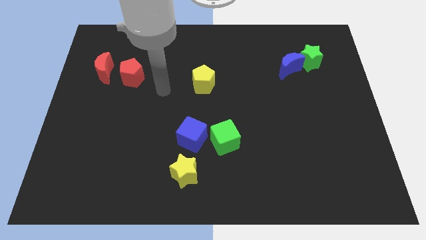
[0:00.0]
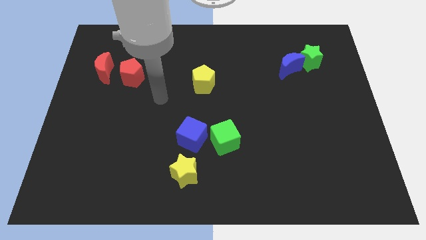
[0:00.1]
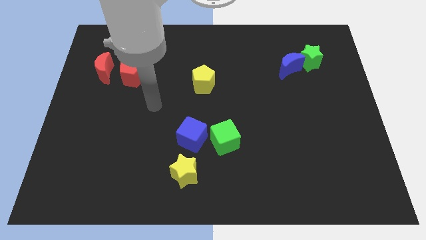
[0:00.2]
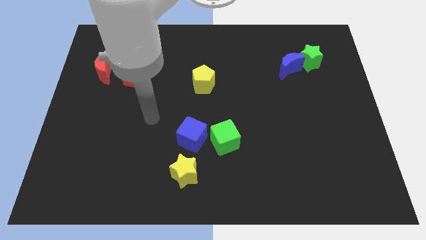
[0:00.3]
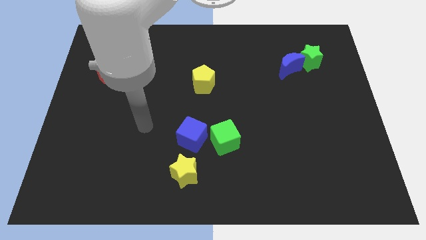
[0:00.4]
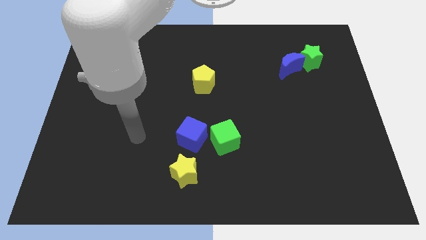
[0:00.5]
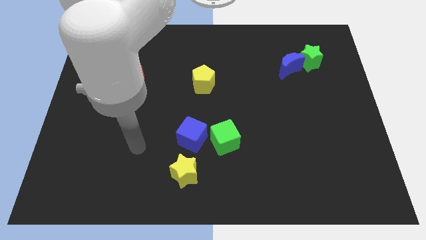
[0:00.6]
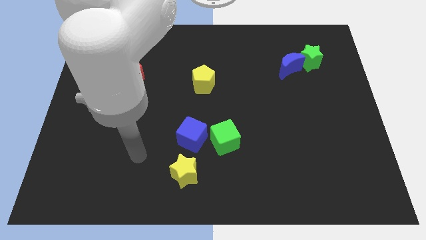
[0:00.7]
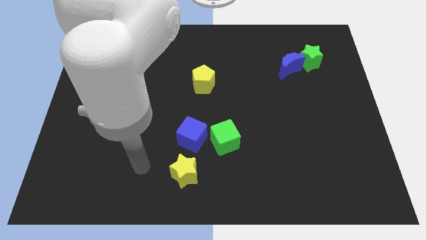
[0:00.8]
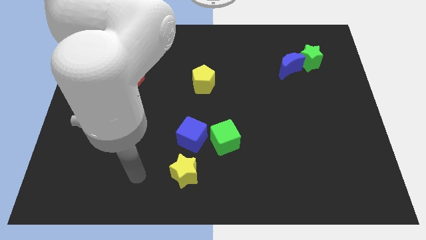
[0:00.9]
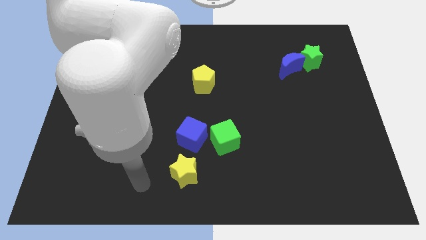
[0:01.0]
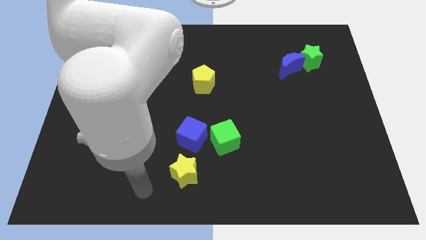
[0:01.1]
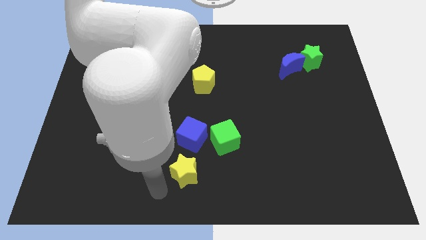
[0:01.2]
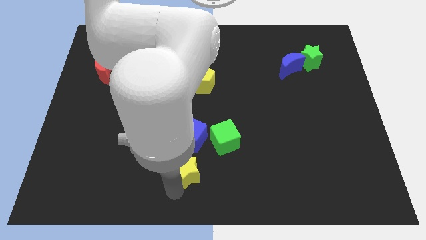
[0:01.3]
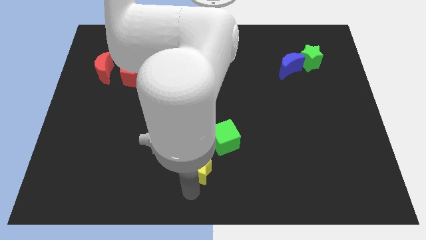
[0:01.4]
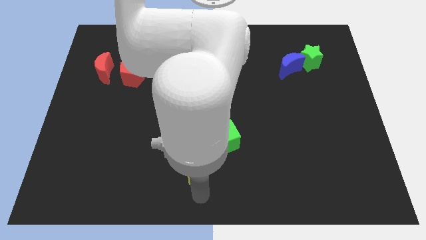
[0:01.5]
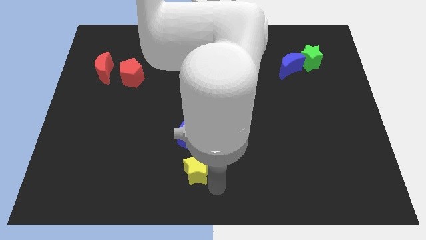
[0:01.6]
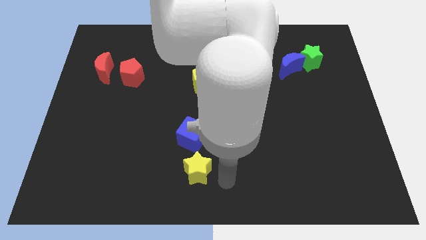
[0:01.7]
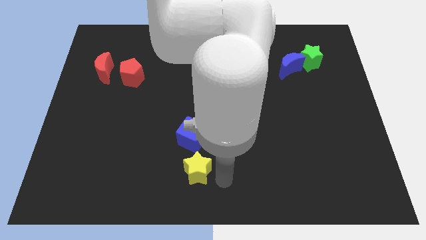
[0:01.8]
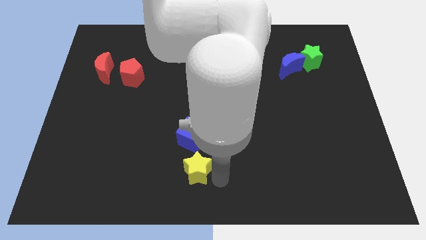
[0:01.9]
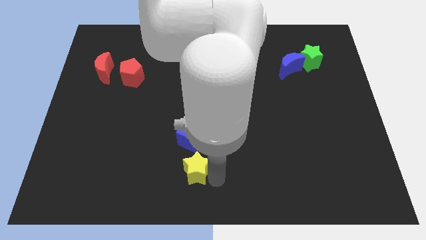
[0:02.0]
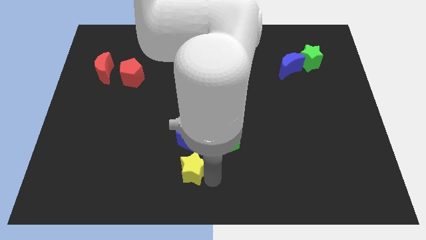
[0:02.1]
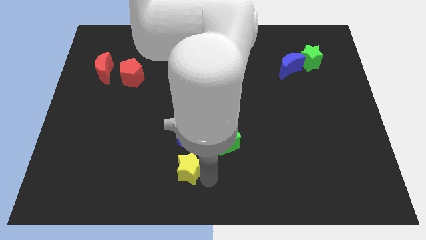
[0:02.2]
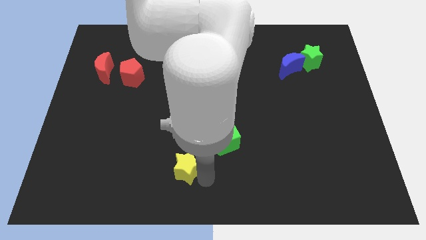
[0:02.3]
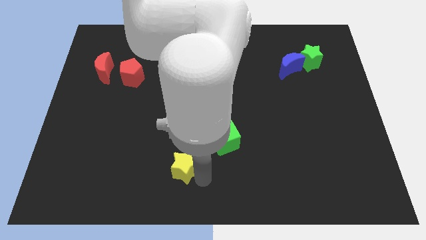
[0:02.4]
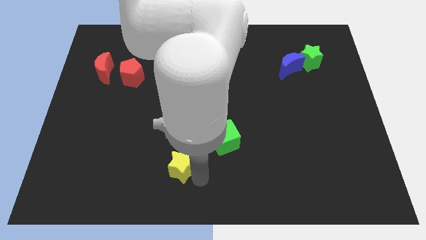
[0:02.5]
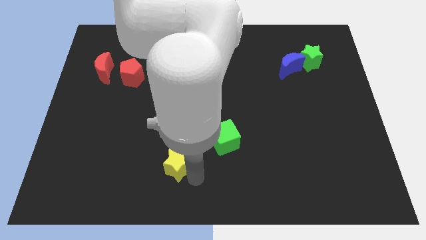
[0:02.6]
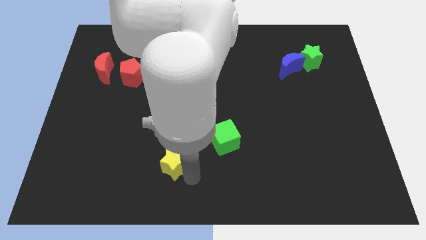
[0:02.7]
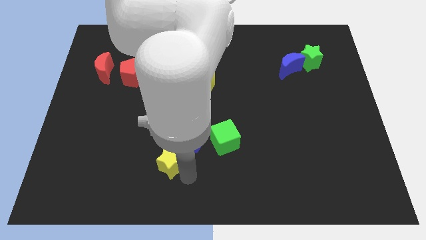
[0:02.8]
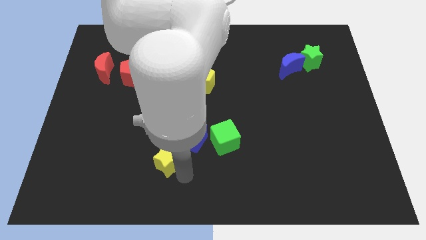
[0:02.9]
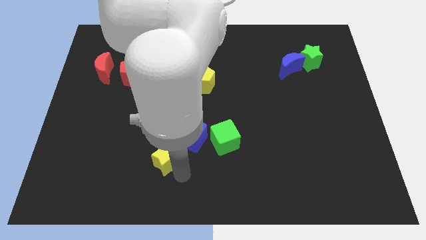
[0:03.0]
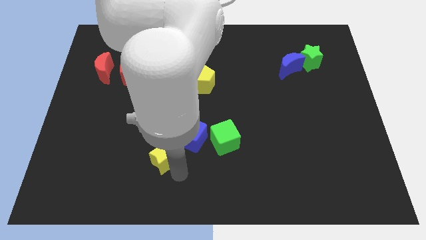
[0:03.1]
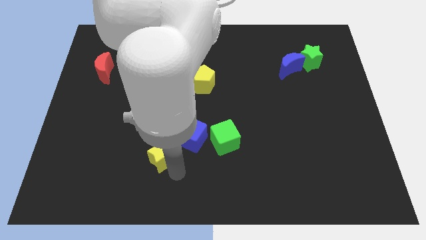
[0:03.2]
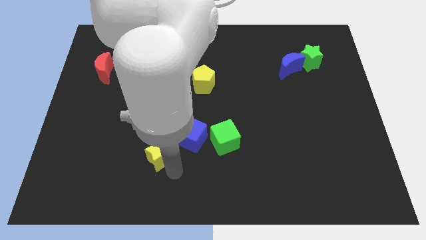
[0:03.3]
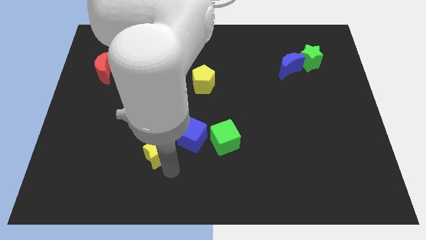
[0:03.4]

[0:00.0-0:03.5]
slightly move the yellow star up and then to the left

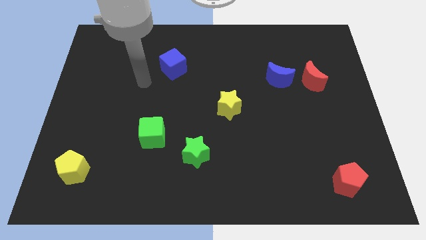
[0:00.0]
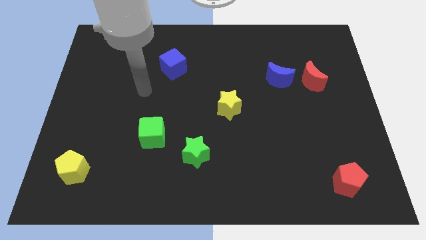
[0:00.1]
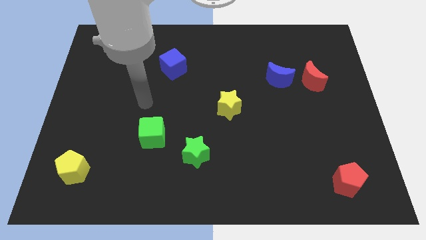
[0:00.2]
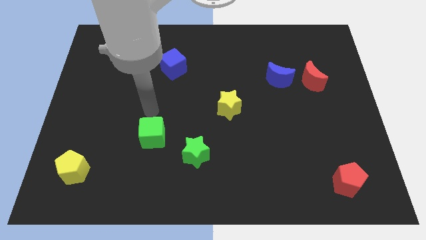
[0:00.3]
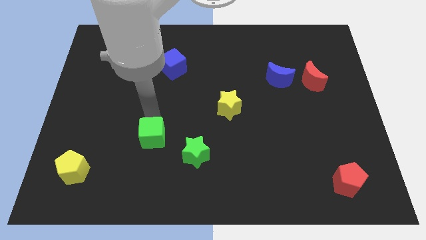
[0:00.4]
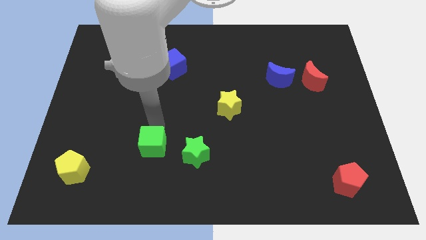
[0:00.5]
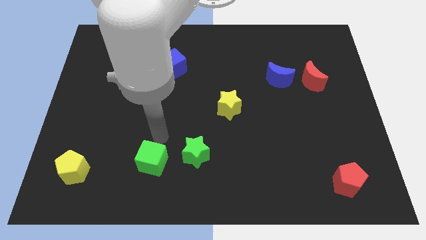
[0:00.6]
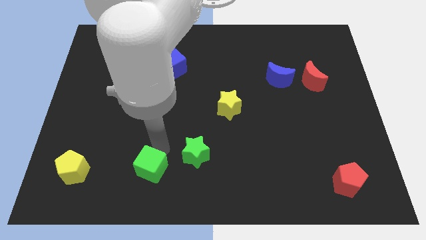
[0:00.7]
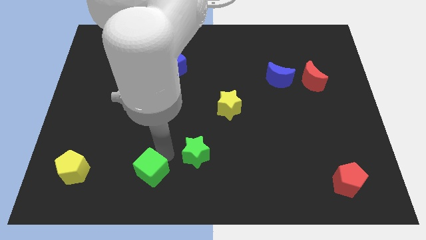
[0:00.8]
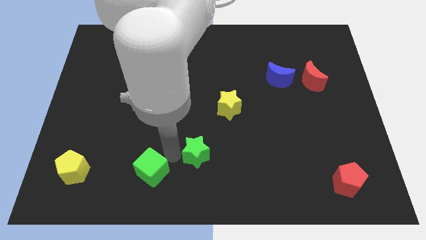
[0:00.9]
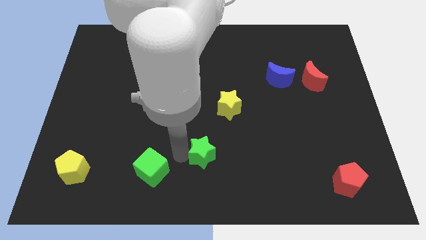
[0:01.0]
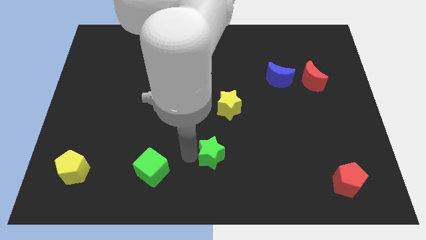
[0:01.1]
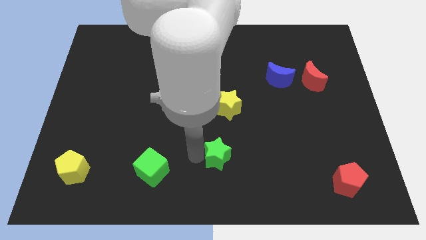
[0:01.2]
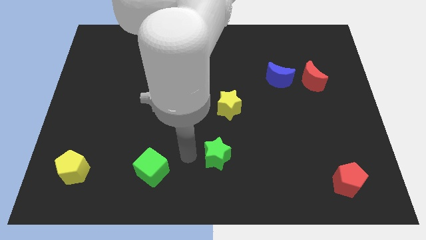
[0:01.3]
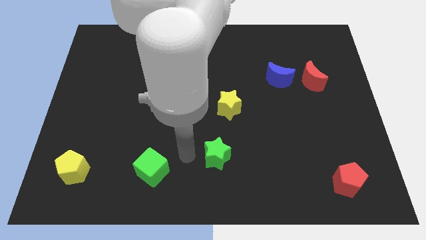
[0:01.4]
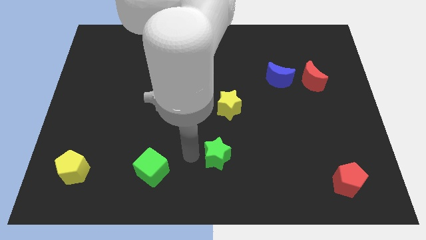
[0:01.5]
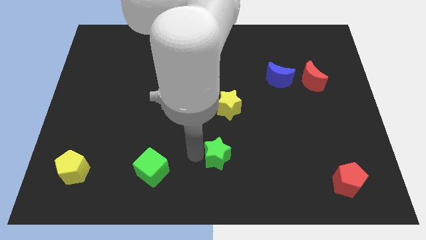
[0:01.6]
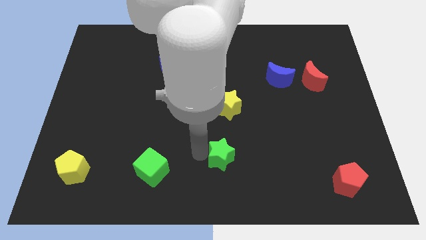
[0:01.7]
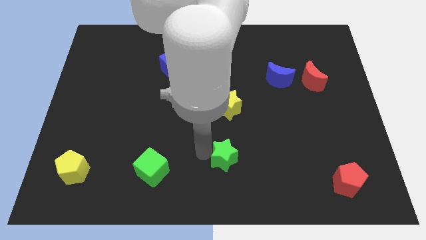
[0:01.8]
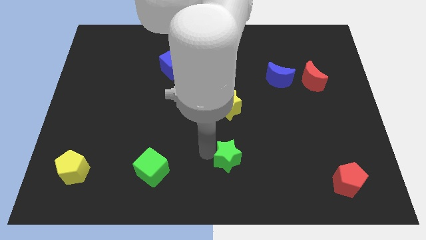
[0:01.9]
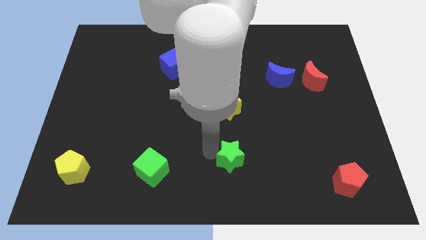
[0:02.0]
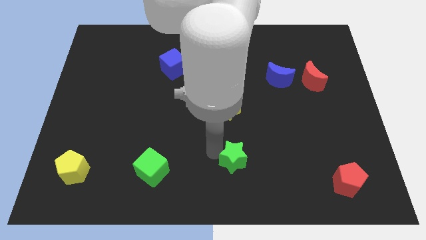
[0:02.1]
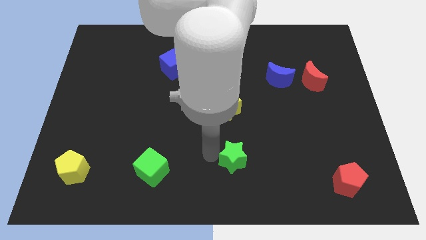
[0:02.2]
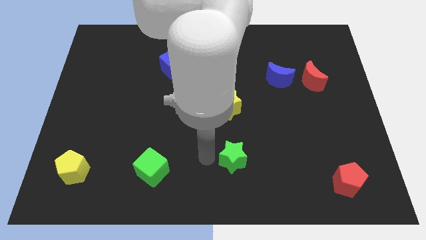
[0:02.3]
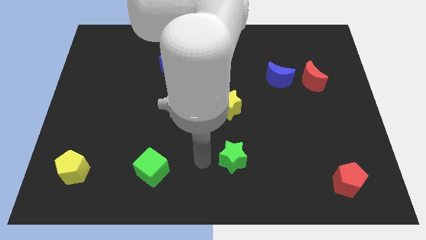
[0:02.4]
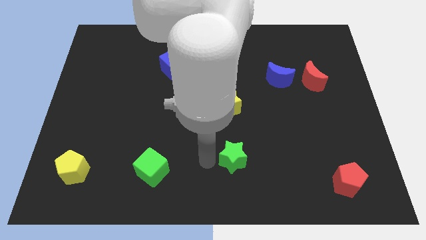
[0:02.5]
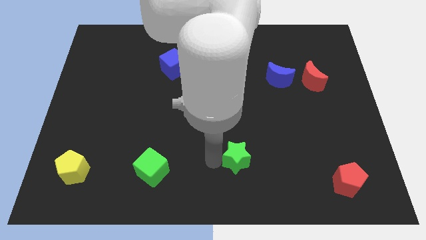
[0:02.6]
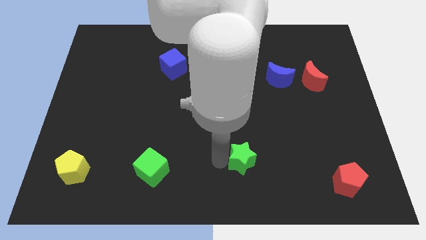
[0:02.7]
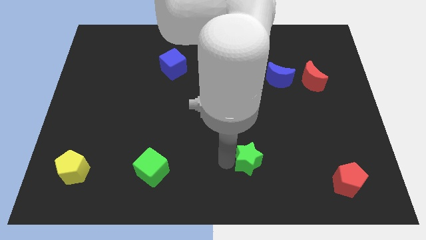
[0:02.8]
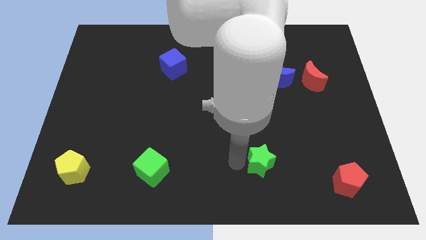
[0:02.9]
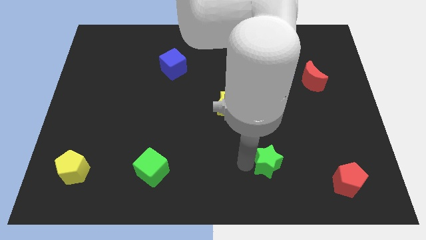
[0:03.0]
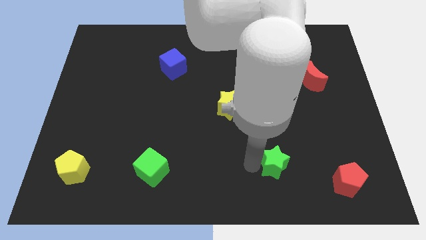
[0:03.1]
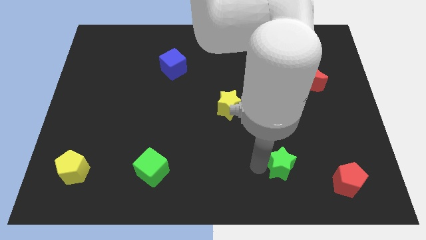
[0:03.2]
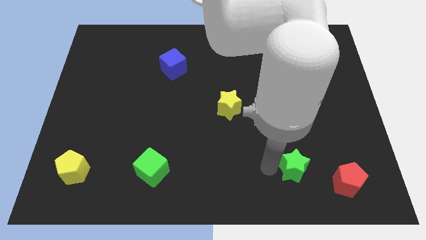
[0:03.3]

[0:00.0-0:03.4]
slide the green star to the right

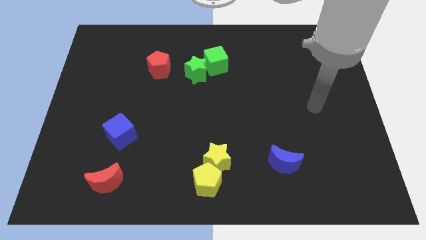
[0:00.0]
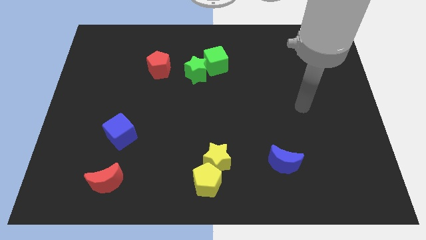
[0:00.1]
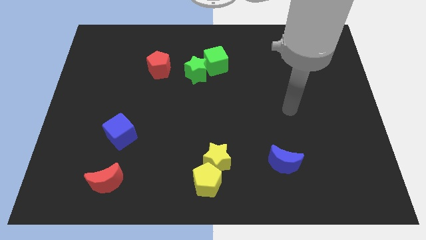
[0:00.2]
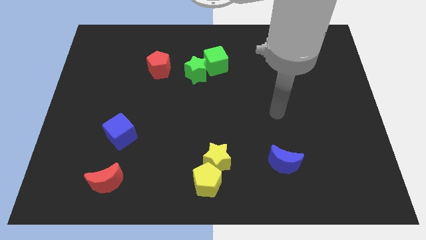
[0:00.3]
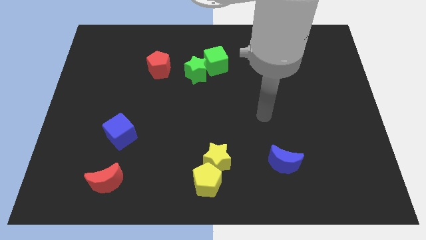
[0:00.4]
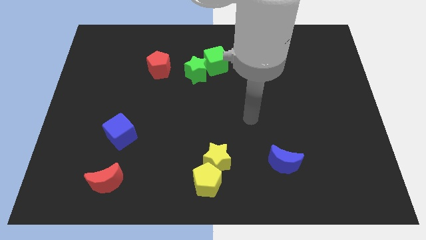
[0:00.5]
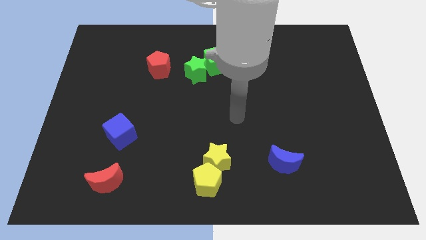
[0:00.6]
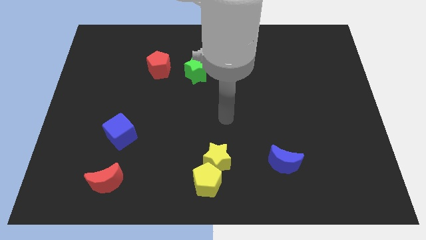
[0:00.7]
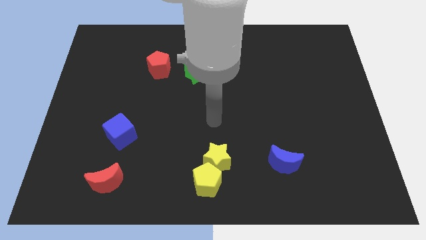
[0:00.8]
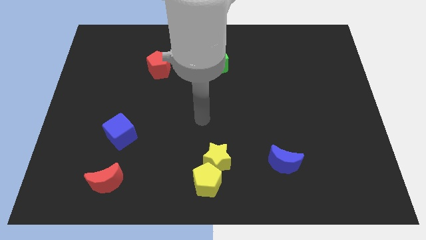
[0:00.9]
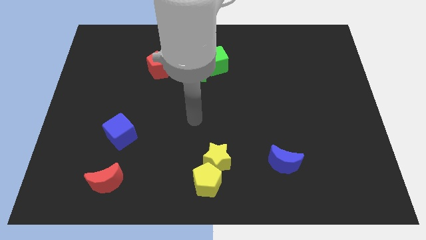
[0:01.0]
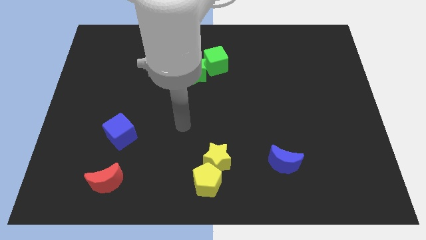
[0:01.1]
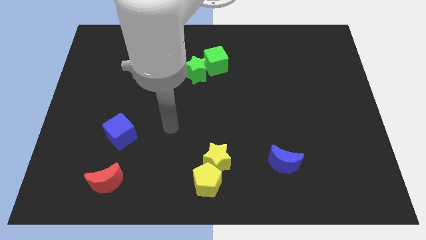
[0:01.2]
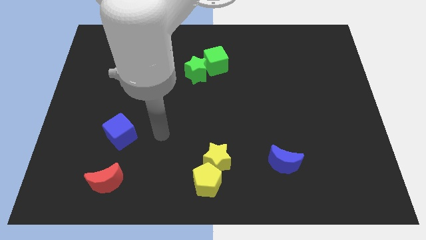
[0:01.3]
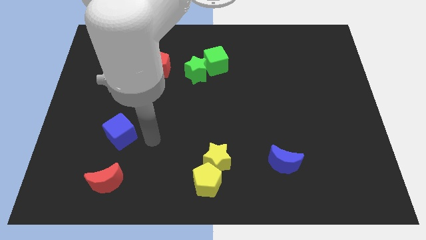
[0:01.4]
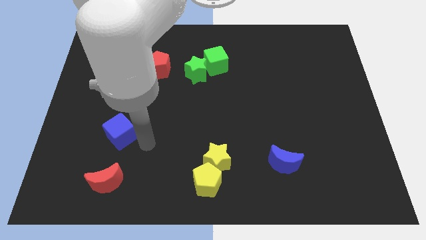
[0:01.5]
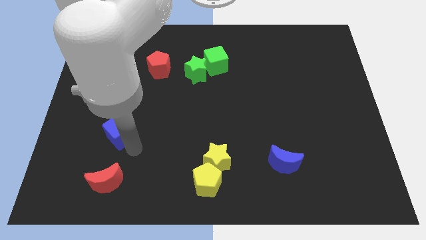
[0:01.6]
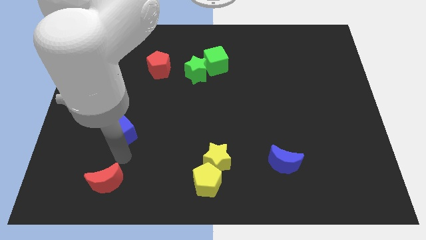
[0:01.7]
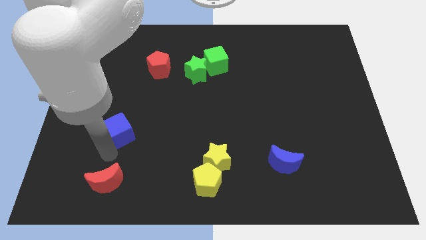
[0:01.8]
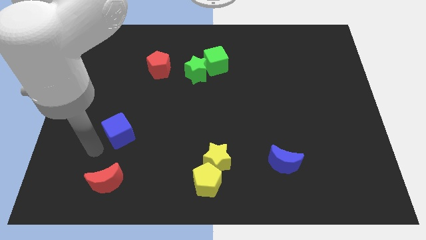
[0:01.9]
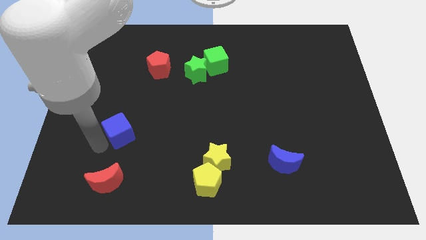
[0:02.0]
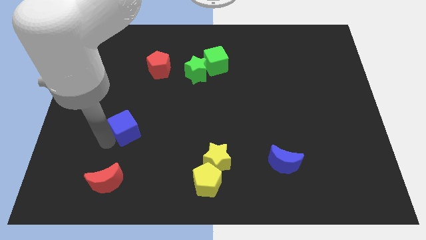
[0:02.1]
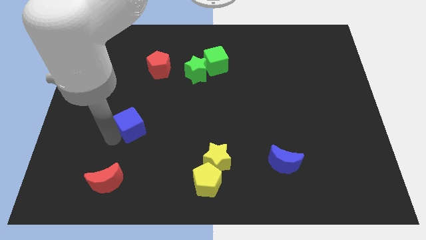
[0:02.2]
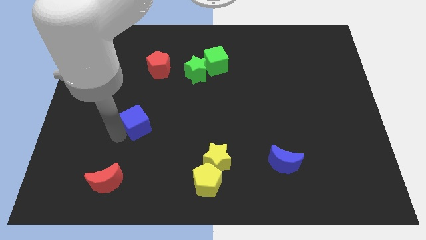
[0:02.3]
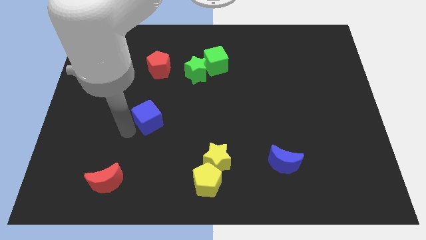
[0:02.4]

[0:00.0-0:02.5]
slide the blue cube a bit up and then right
